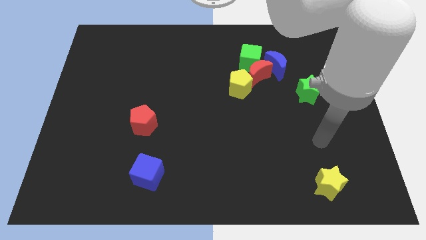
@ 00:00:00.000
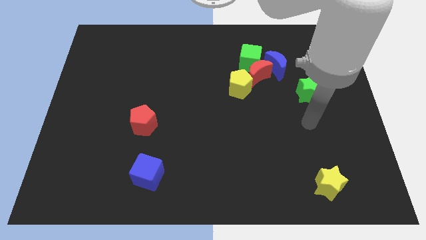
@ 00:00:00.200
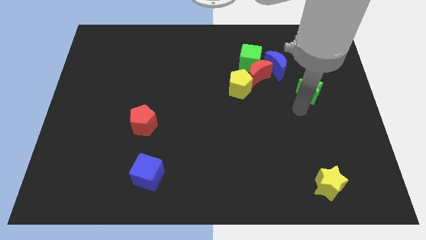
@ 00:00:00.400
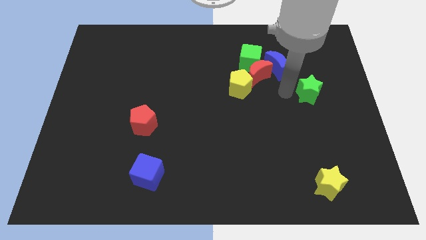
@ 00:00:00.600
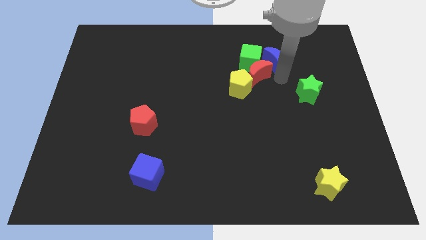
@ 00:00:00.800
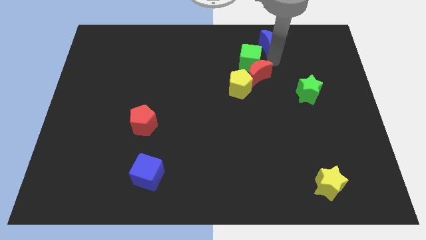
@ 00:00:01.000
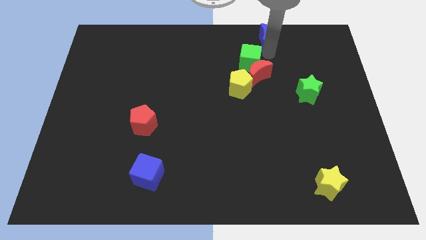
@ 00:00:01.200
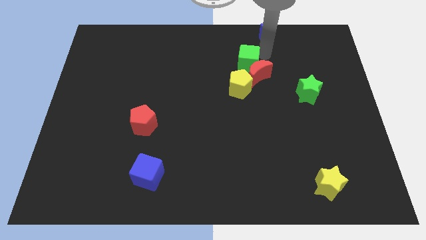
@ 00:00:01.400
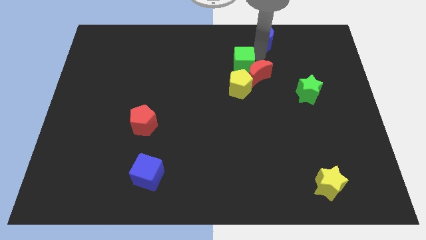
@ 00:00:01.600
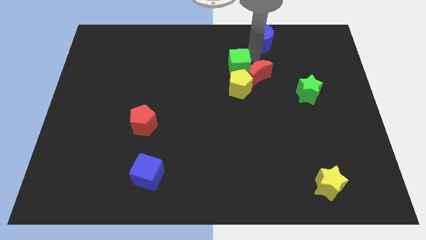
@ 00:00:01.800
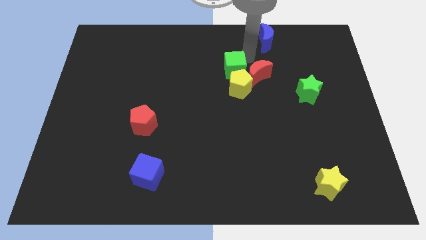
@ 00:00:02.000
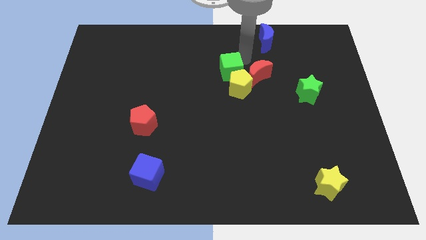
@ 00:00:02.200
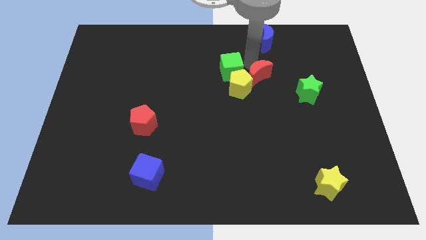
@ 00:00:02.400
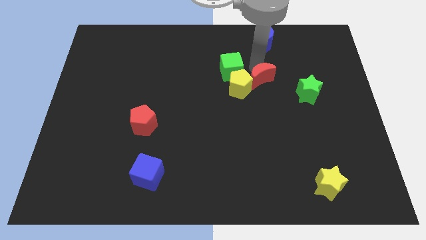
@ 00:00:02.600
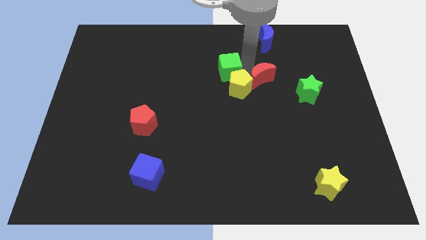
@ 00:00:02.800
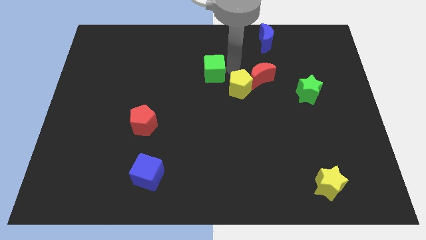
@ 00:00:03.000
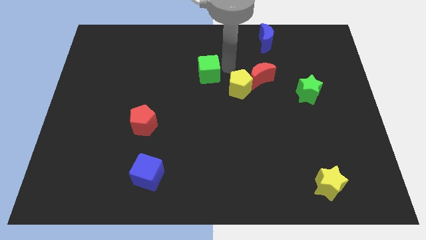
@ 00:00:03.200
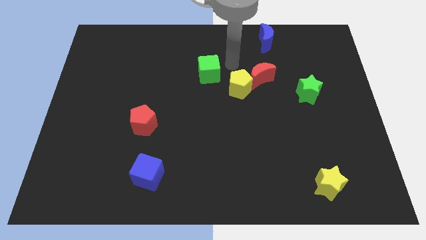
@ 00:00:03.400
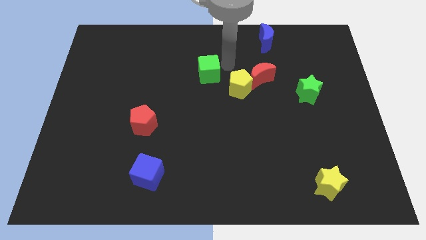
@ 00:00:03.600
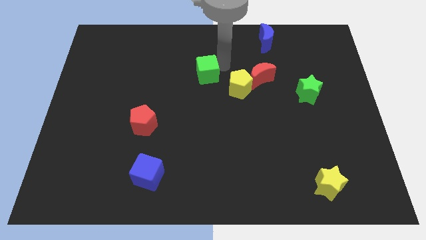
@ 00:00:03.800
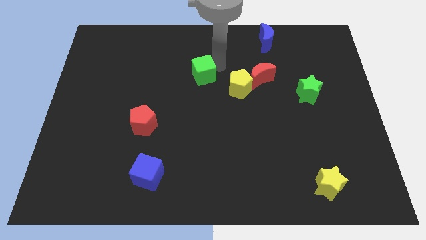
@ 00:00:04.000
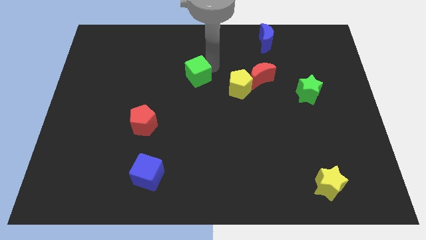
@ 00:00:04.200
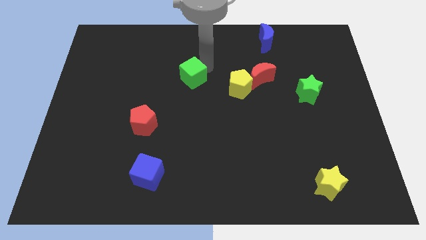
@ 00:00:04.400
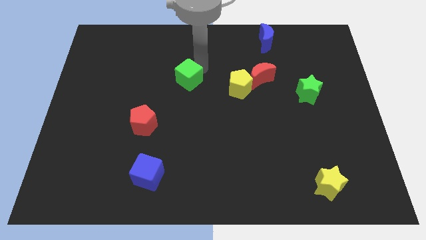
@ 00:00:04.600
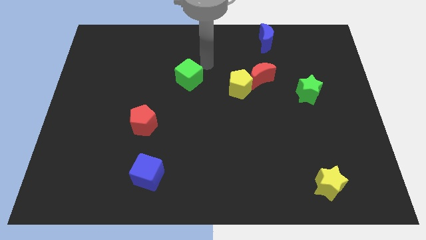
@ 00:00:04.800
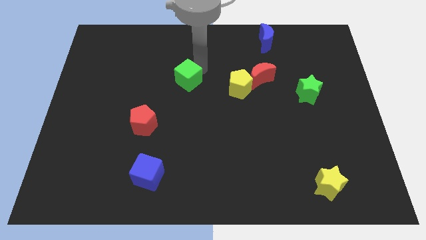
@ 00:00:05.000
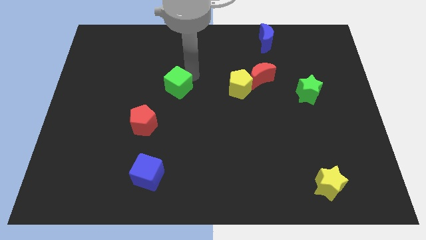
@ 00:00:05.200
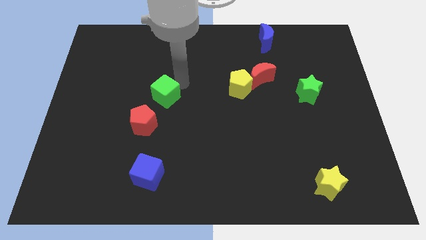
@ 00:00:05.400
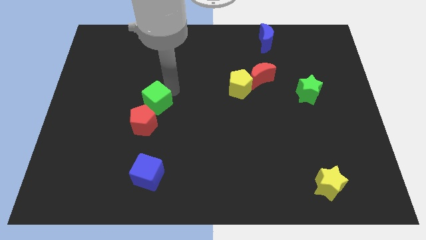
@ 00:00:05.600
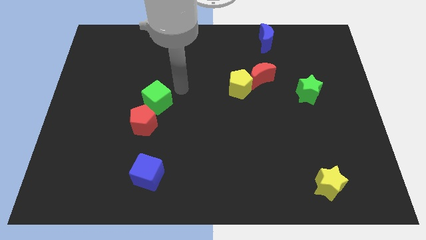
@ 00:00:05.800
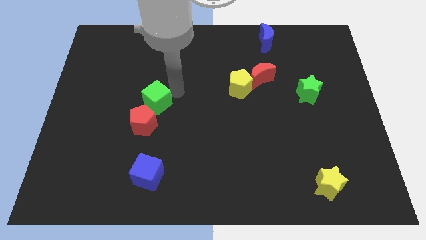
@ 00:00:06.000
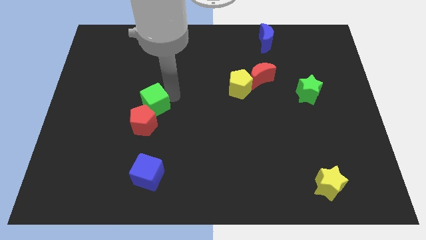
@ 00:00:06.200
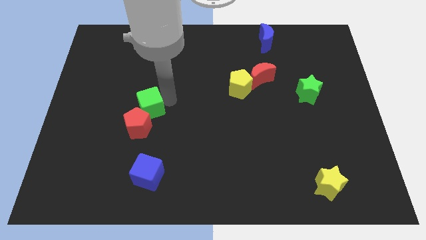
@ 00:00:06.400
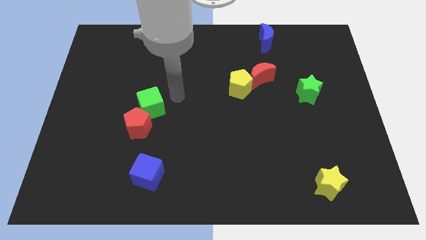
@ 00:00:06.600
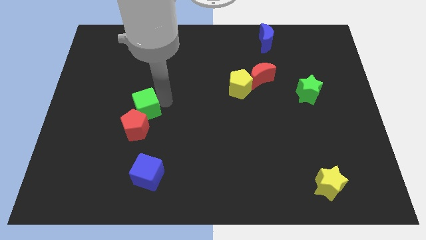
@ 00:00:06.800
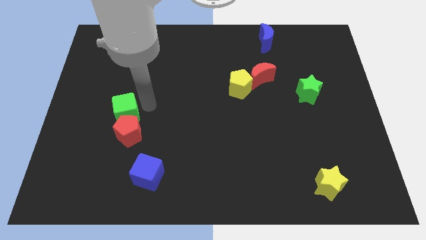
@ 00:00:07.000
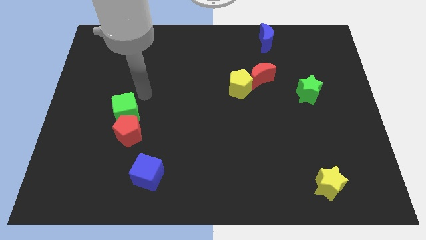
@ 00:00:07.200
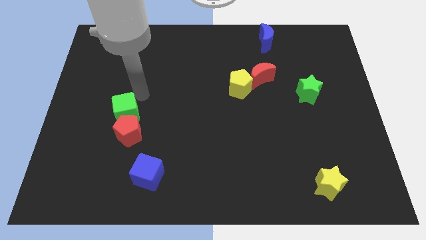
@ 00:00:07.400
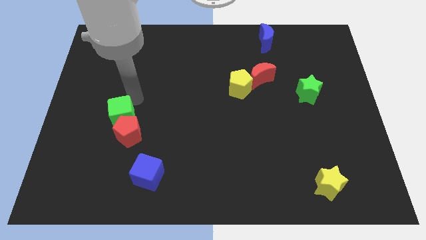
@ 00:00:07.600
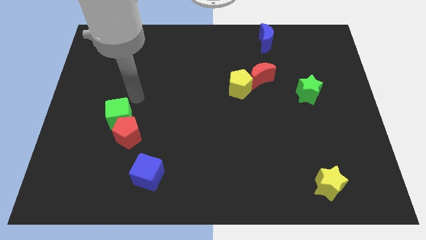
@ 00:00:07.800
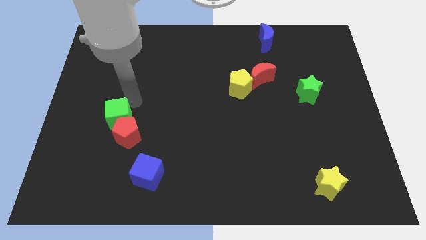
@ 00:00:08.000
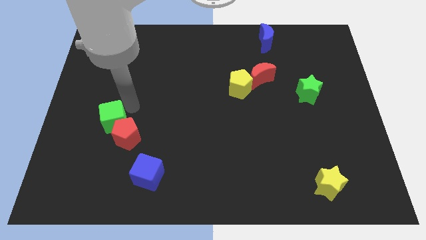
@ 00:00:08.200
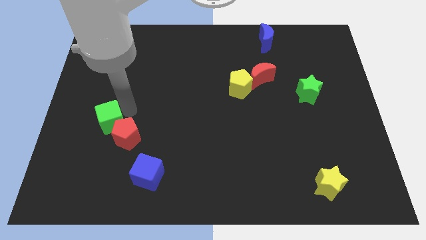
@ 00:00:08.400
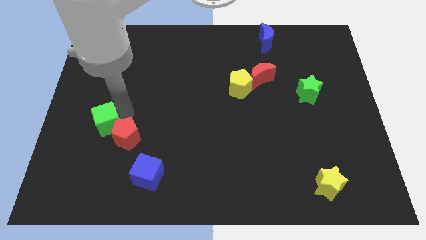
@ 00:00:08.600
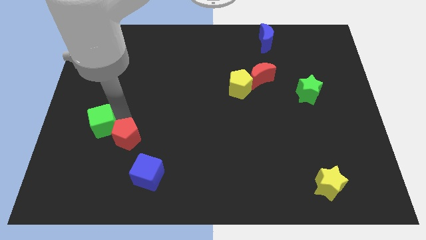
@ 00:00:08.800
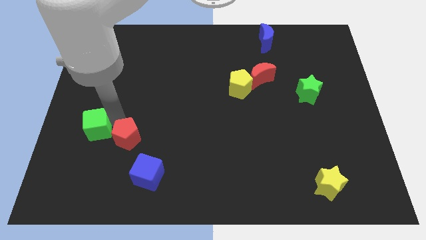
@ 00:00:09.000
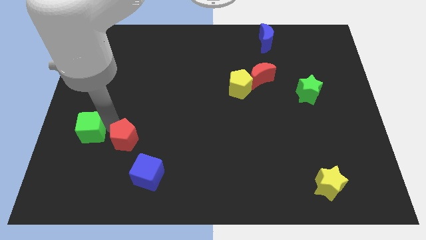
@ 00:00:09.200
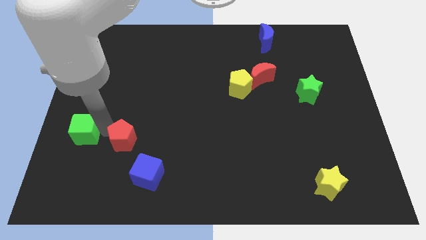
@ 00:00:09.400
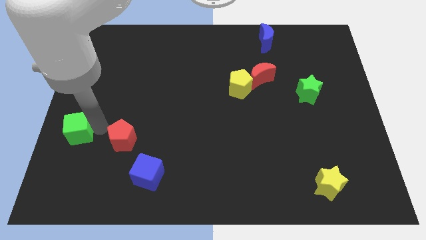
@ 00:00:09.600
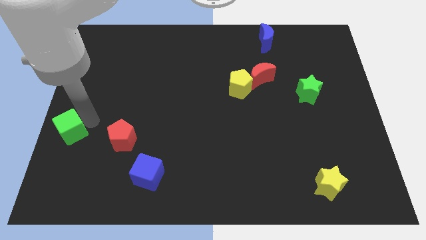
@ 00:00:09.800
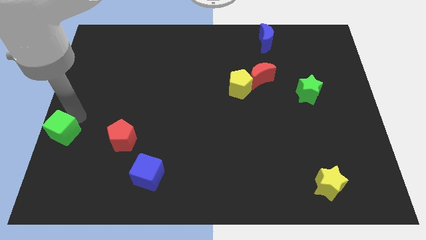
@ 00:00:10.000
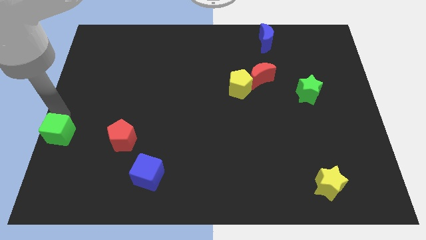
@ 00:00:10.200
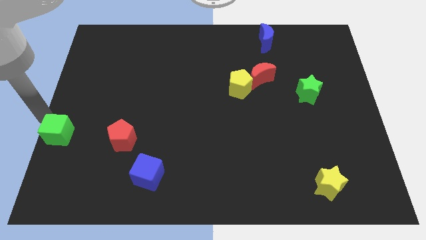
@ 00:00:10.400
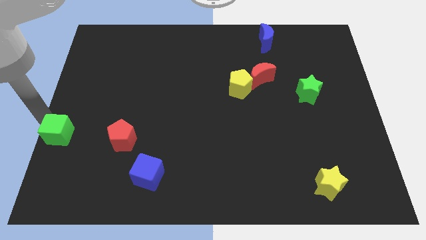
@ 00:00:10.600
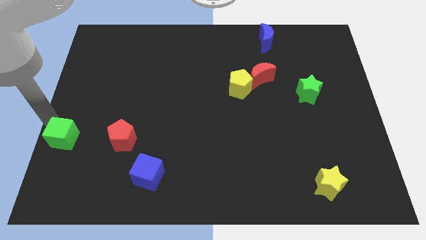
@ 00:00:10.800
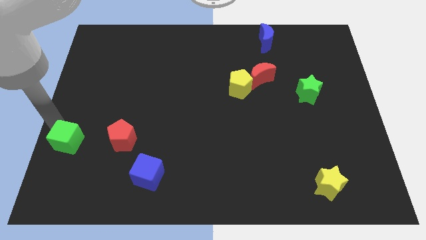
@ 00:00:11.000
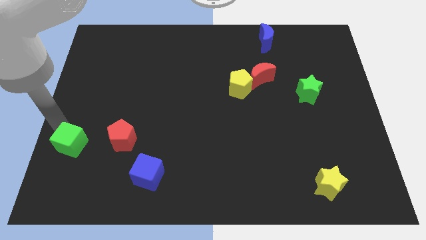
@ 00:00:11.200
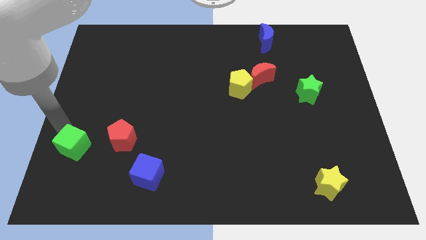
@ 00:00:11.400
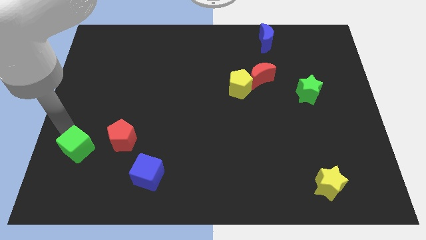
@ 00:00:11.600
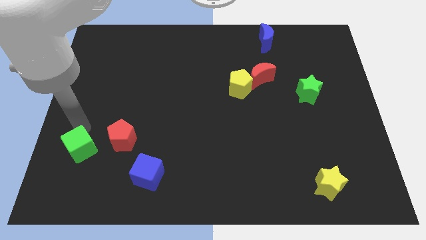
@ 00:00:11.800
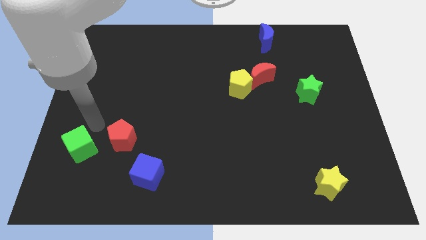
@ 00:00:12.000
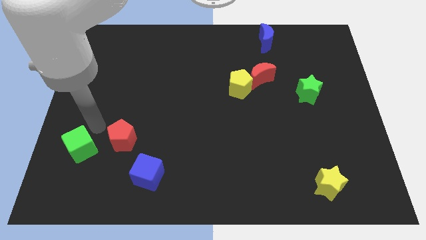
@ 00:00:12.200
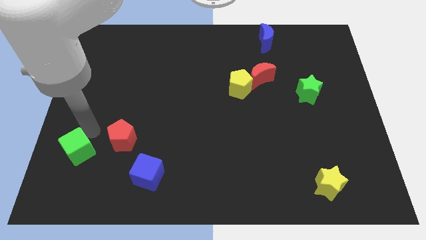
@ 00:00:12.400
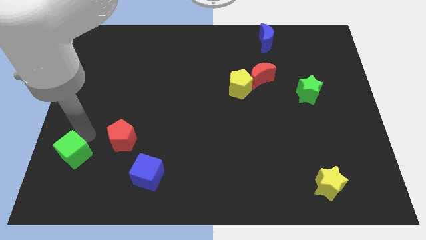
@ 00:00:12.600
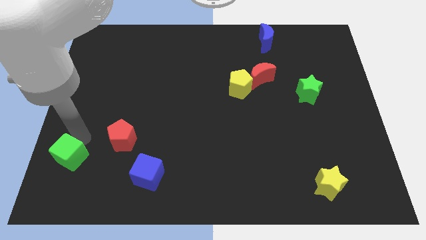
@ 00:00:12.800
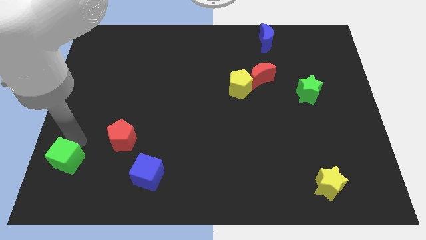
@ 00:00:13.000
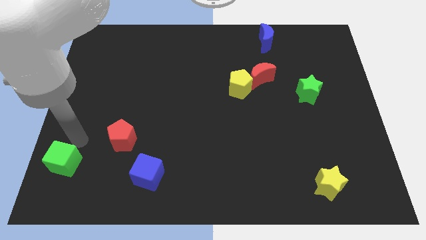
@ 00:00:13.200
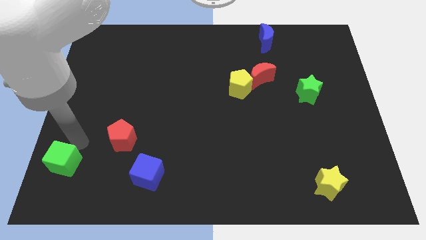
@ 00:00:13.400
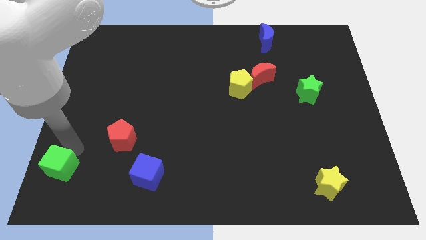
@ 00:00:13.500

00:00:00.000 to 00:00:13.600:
move the green cube to the bottom left corner
